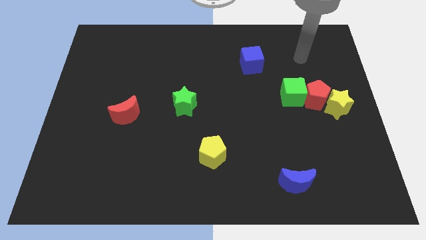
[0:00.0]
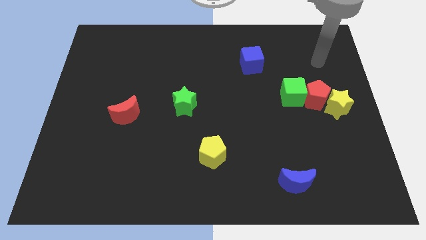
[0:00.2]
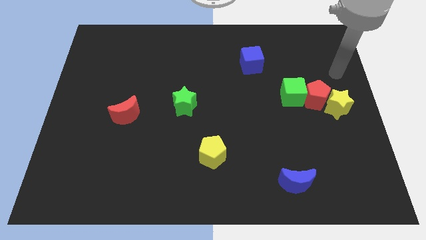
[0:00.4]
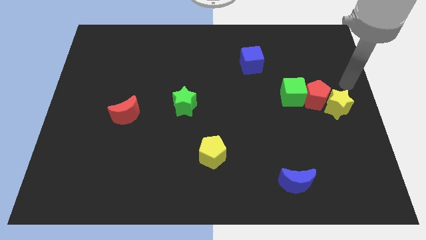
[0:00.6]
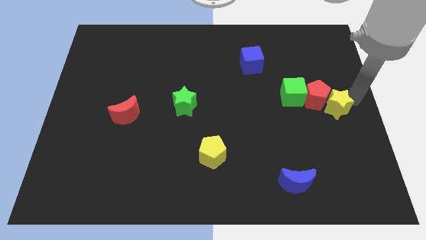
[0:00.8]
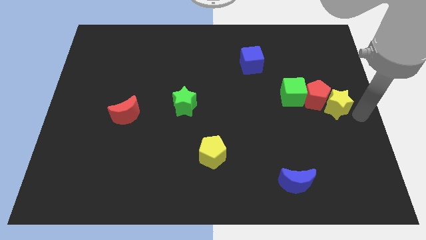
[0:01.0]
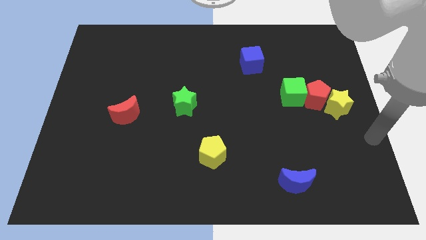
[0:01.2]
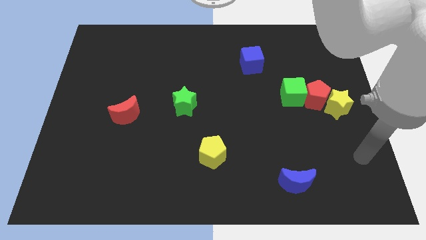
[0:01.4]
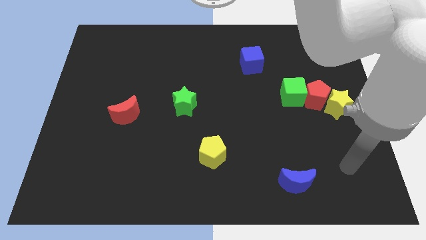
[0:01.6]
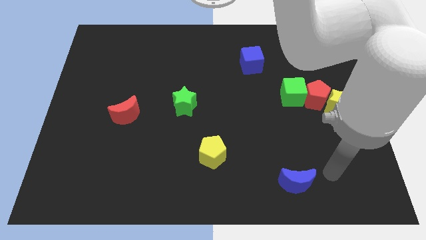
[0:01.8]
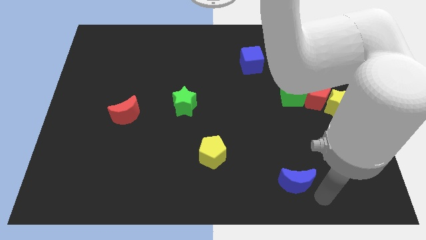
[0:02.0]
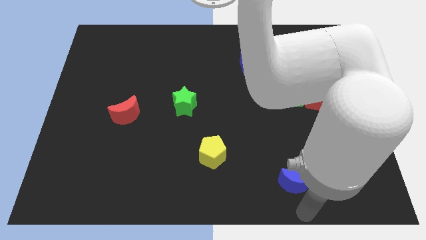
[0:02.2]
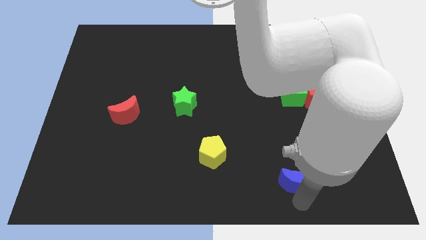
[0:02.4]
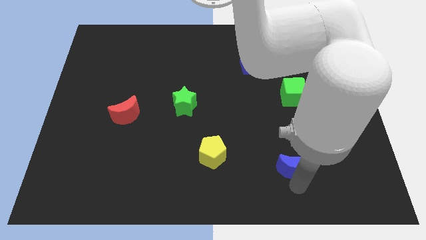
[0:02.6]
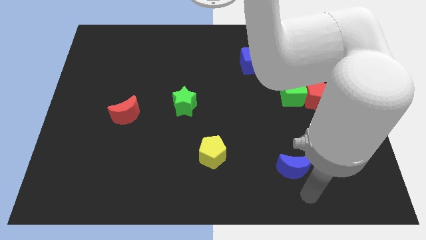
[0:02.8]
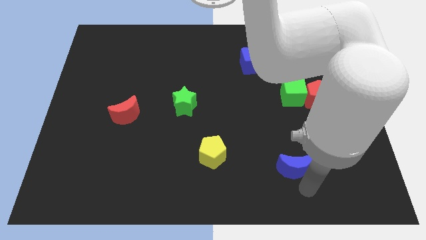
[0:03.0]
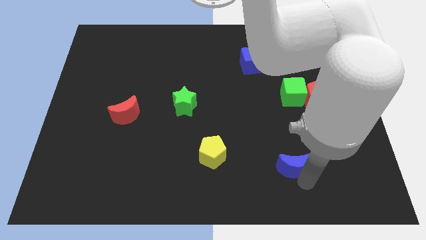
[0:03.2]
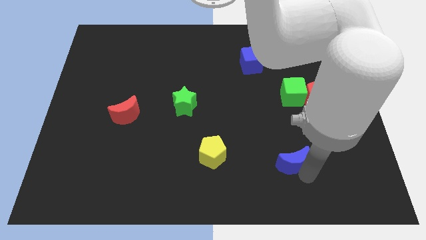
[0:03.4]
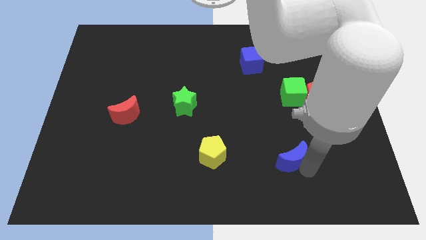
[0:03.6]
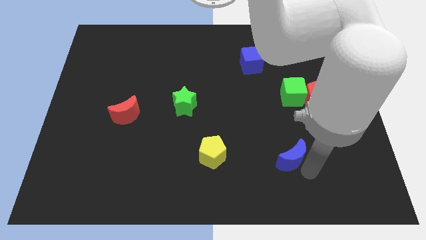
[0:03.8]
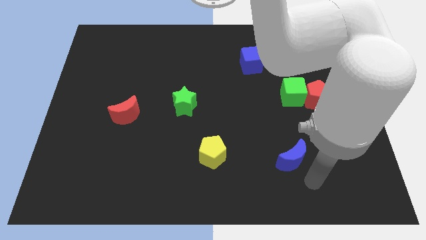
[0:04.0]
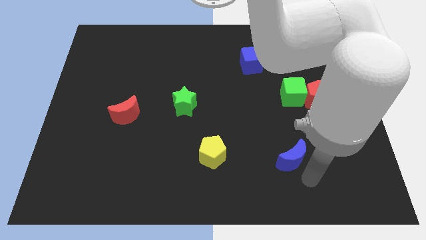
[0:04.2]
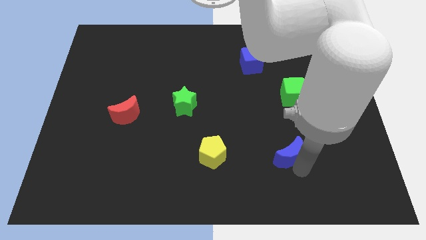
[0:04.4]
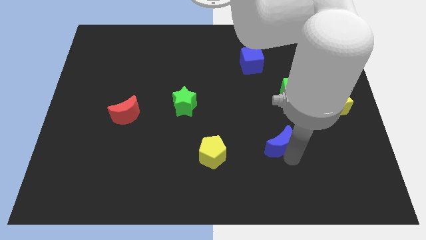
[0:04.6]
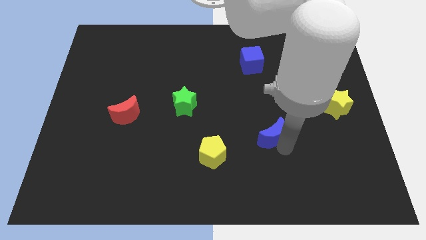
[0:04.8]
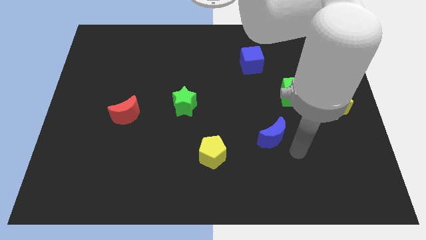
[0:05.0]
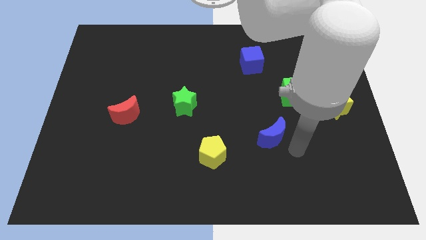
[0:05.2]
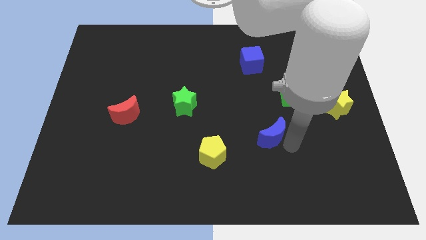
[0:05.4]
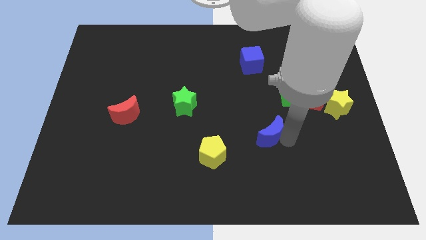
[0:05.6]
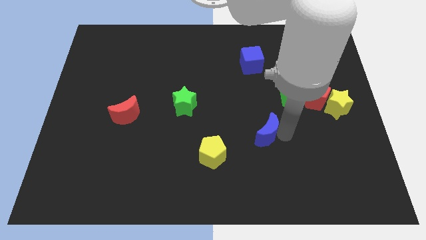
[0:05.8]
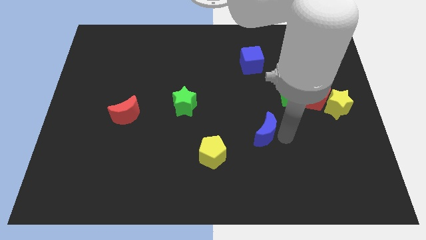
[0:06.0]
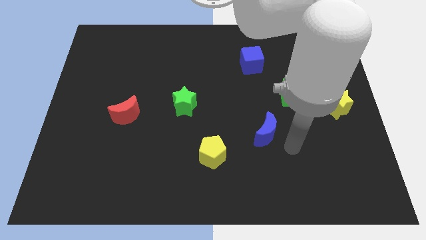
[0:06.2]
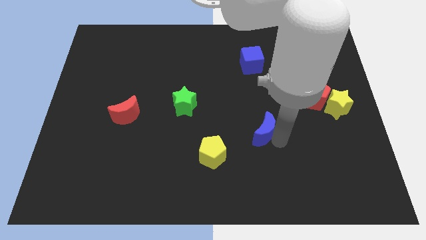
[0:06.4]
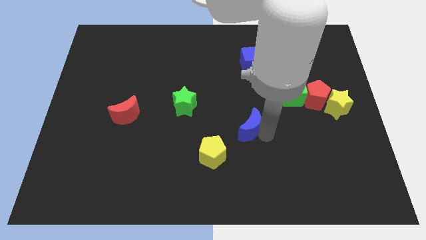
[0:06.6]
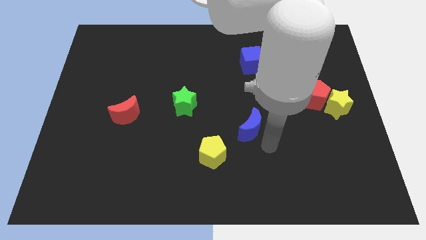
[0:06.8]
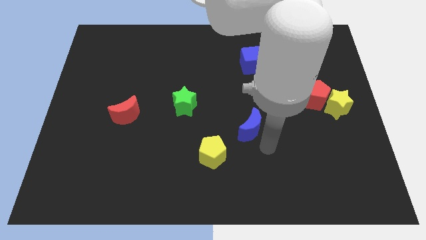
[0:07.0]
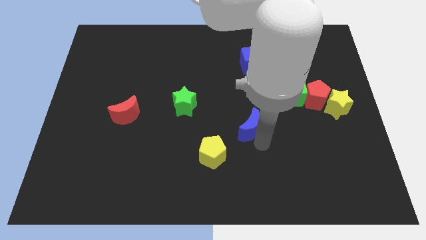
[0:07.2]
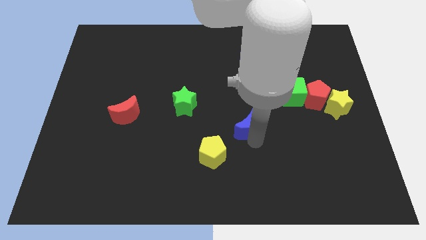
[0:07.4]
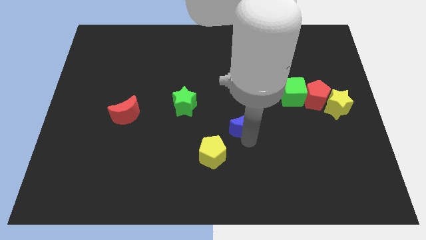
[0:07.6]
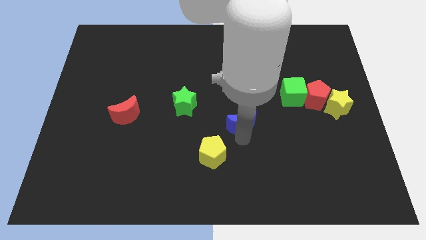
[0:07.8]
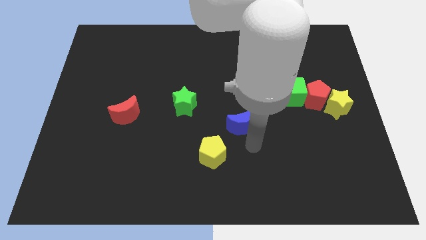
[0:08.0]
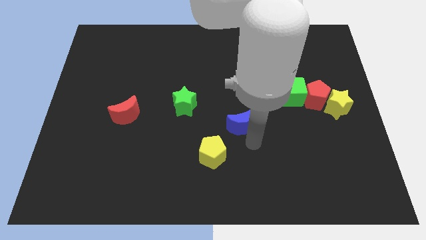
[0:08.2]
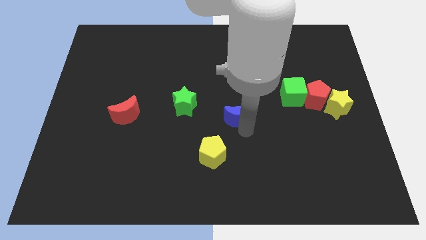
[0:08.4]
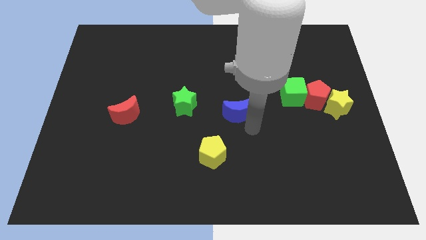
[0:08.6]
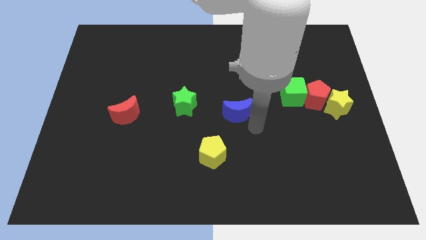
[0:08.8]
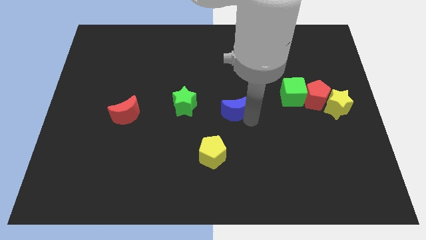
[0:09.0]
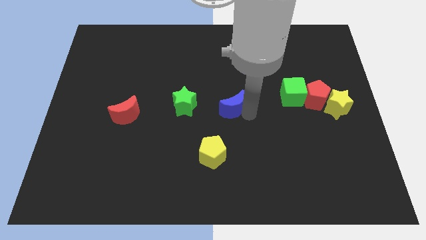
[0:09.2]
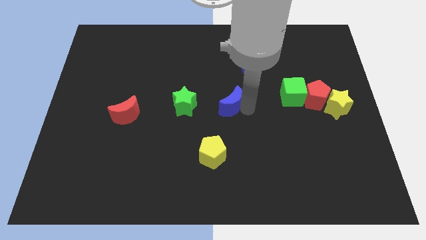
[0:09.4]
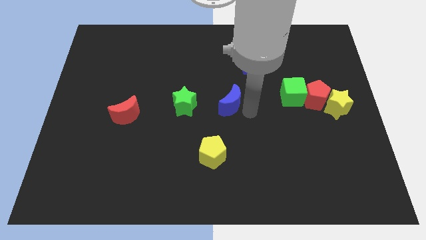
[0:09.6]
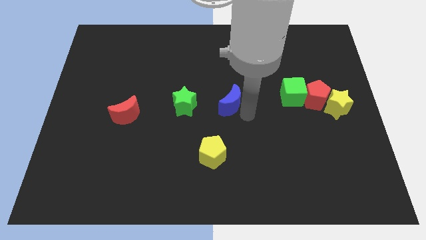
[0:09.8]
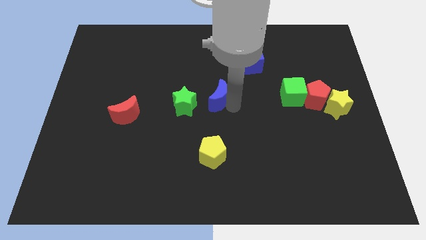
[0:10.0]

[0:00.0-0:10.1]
put the blue moon diagonally up and to the right of the green star

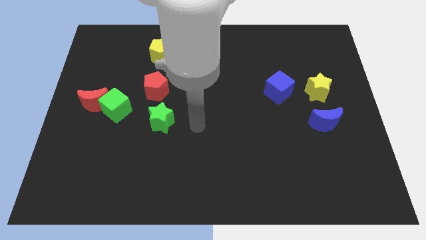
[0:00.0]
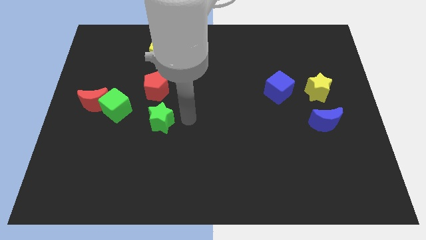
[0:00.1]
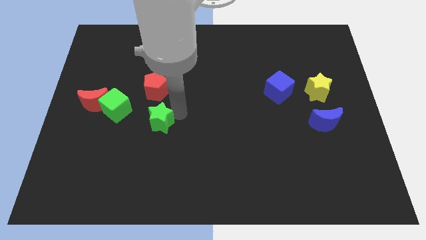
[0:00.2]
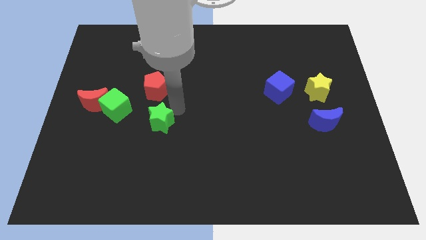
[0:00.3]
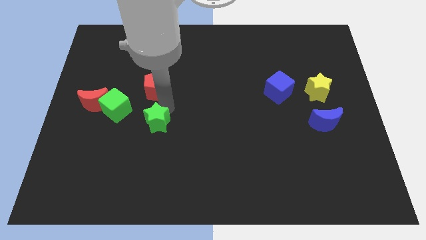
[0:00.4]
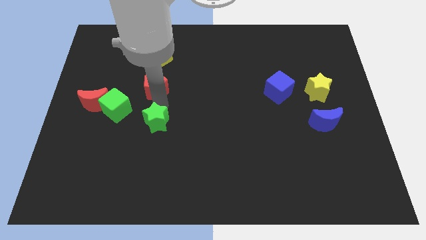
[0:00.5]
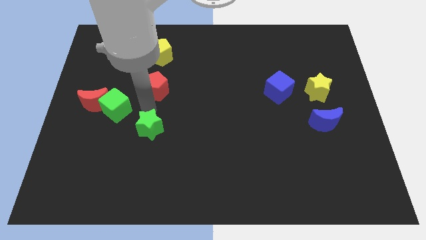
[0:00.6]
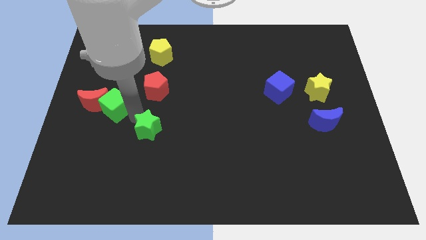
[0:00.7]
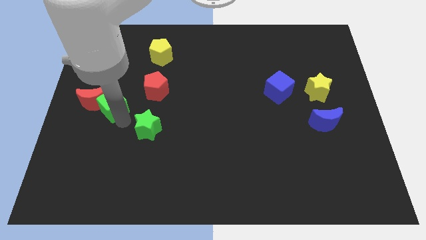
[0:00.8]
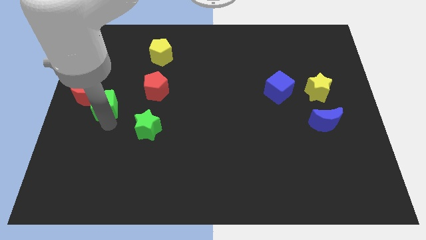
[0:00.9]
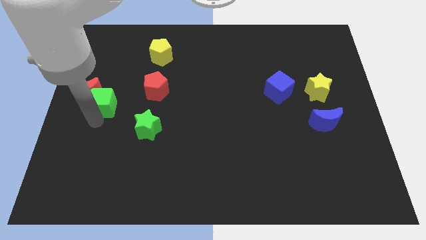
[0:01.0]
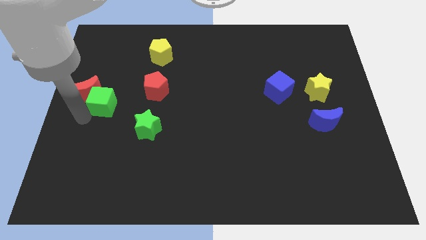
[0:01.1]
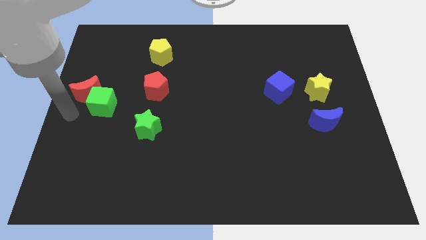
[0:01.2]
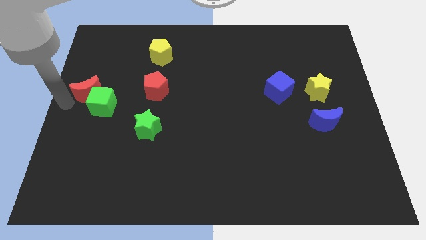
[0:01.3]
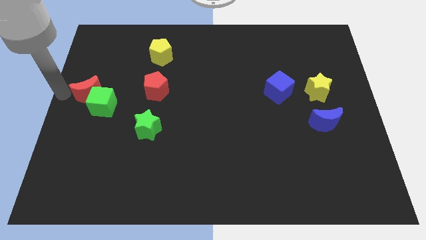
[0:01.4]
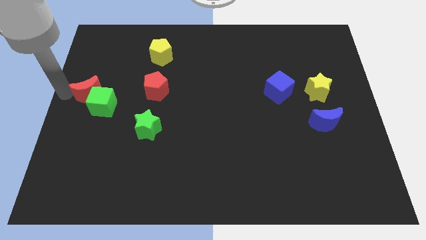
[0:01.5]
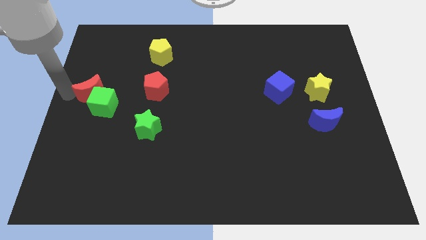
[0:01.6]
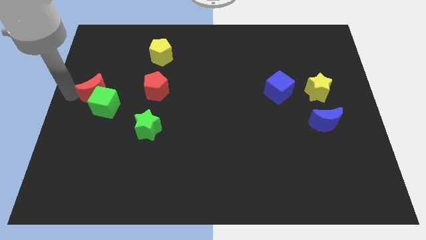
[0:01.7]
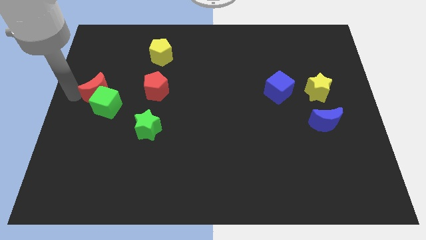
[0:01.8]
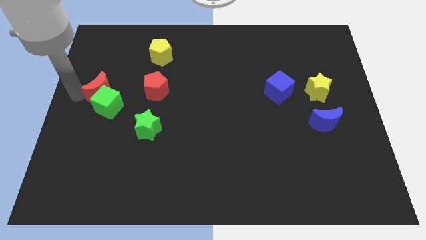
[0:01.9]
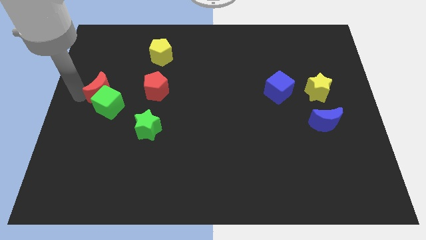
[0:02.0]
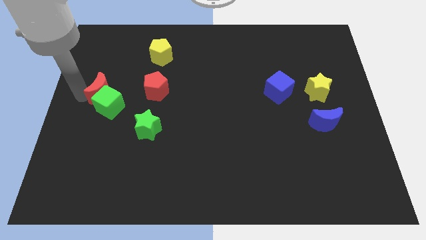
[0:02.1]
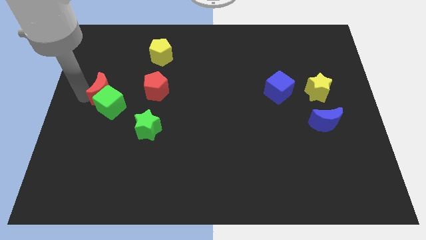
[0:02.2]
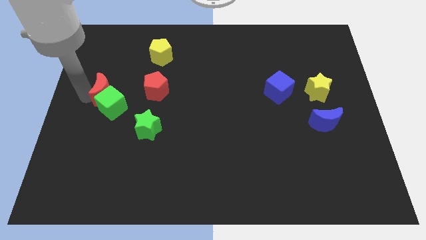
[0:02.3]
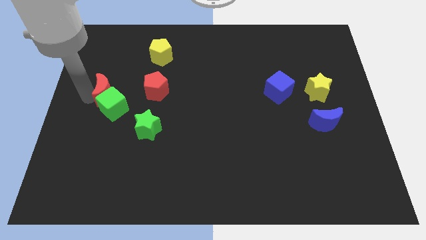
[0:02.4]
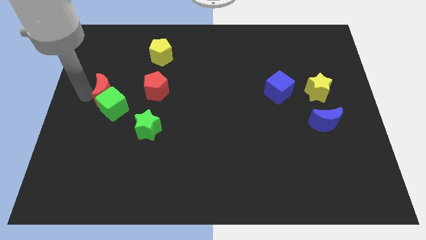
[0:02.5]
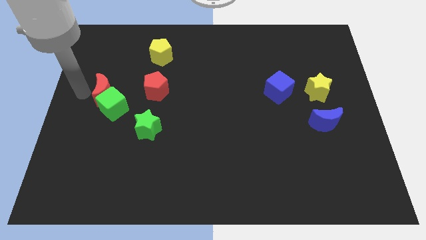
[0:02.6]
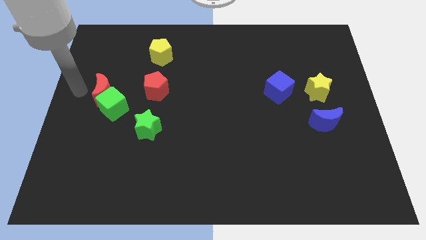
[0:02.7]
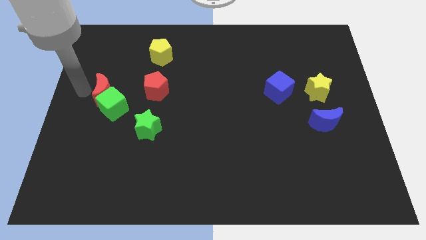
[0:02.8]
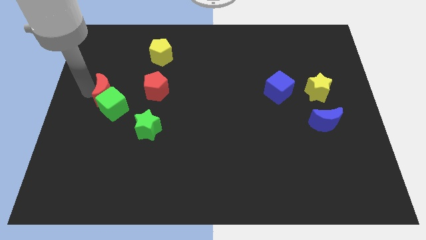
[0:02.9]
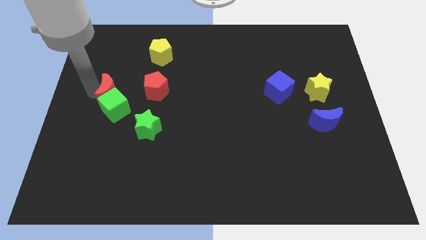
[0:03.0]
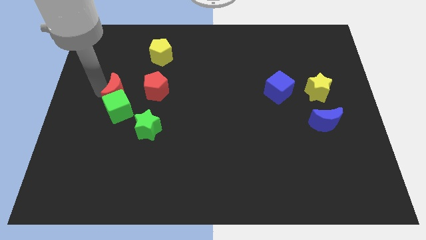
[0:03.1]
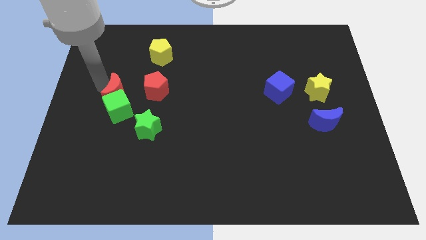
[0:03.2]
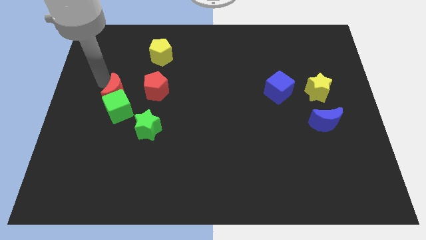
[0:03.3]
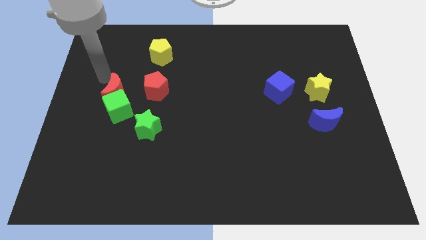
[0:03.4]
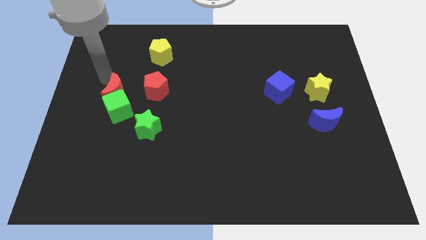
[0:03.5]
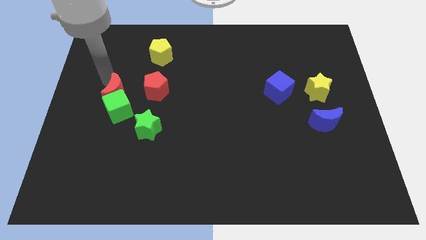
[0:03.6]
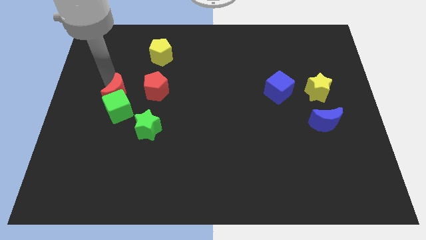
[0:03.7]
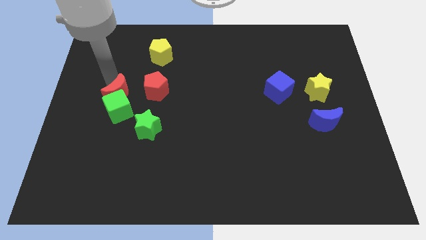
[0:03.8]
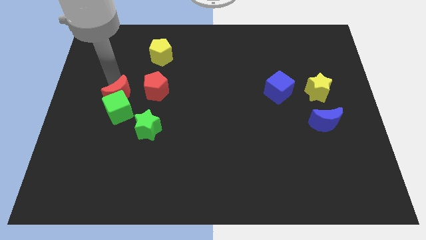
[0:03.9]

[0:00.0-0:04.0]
put the red moon diagonally up and to the left of the green star
